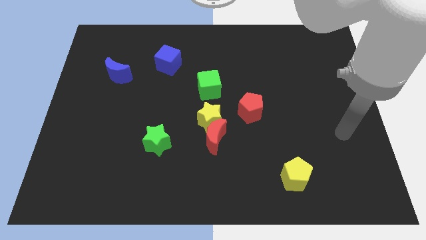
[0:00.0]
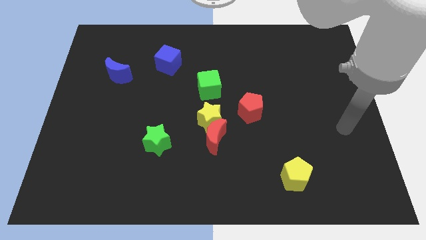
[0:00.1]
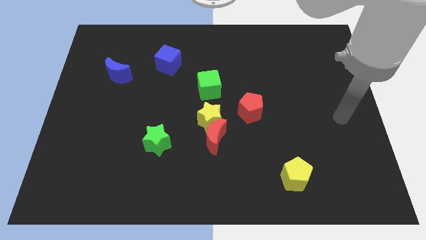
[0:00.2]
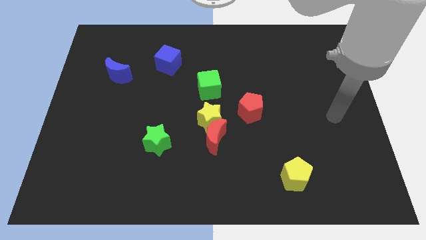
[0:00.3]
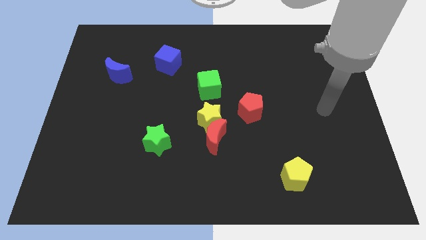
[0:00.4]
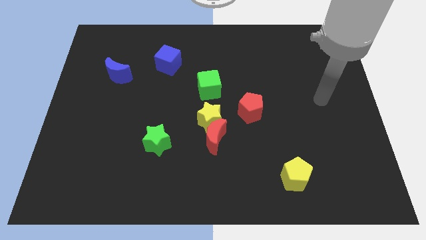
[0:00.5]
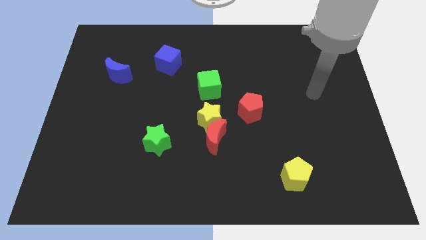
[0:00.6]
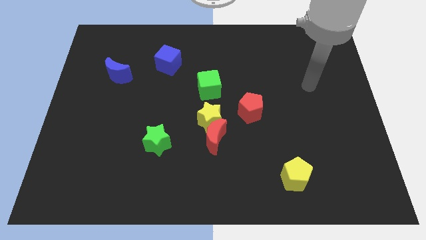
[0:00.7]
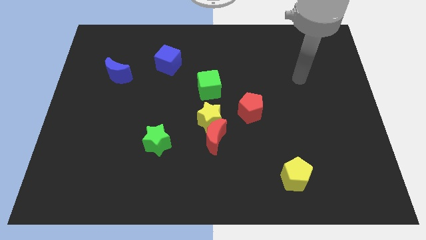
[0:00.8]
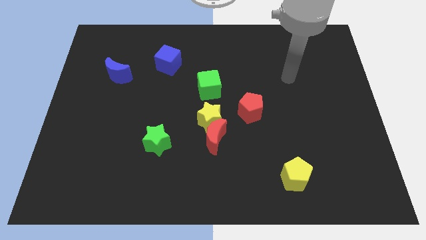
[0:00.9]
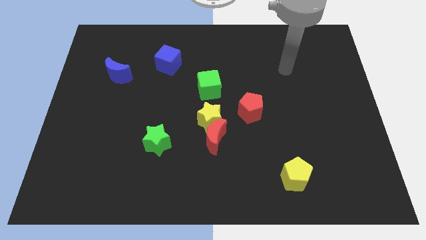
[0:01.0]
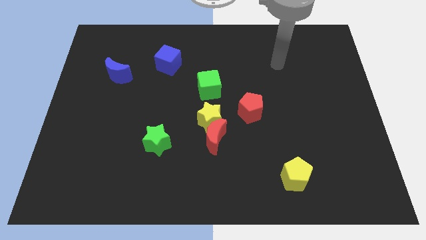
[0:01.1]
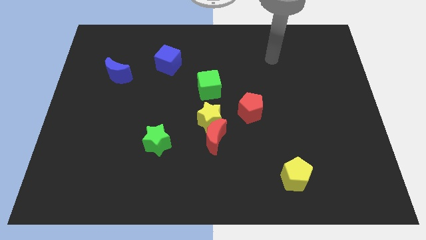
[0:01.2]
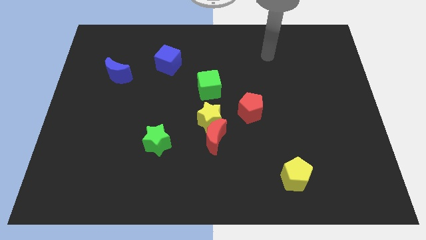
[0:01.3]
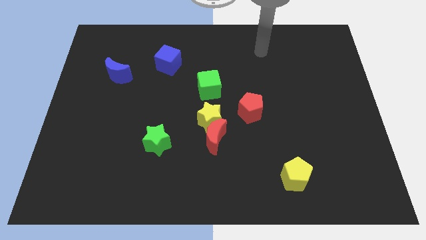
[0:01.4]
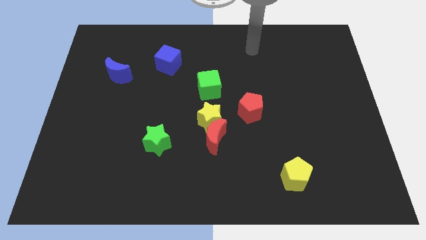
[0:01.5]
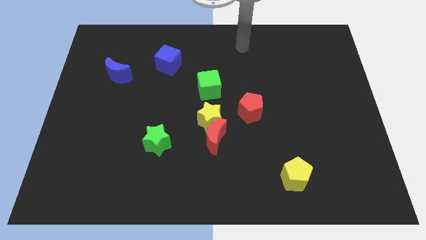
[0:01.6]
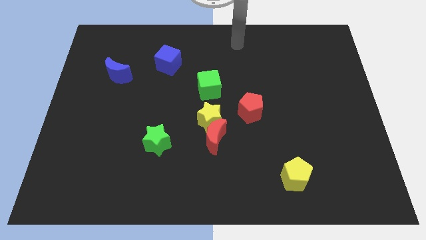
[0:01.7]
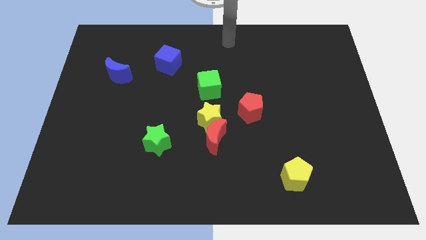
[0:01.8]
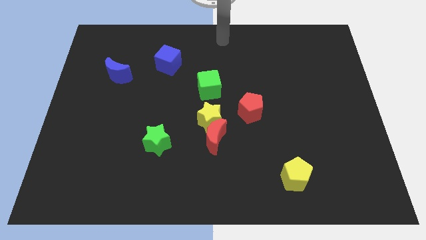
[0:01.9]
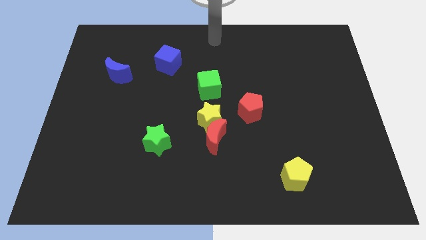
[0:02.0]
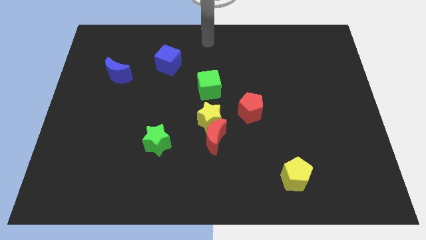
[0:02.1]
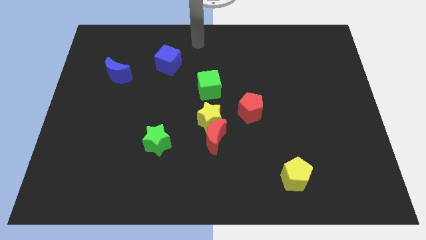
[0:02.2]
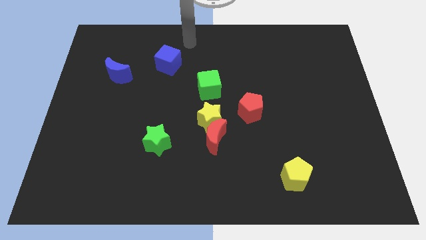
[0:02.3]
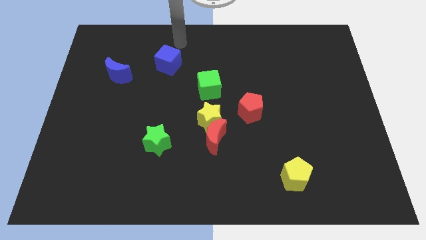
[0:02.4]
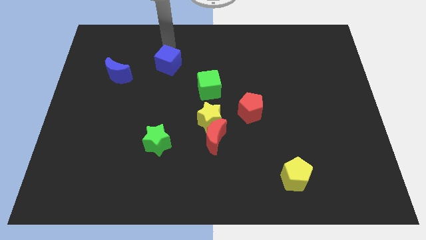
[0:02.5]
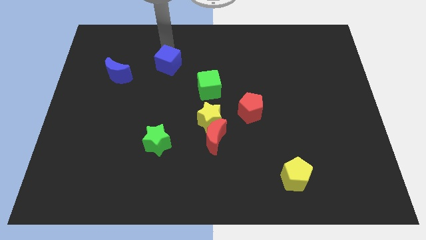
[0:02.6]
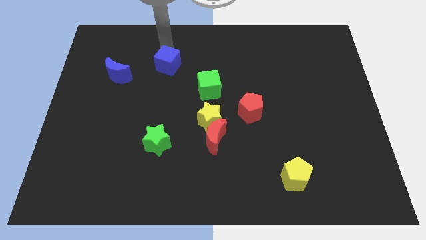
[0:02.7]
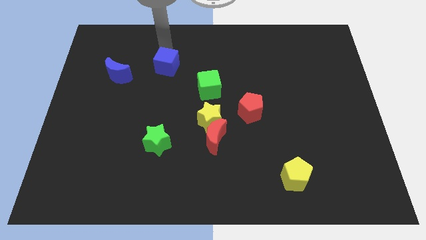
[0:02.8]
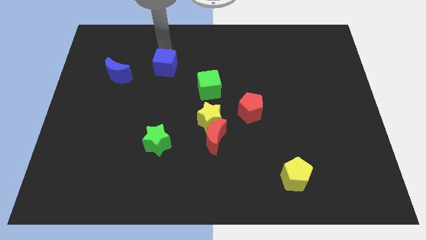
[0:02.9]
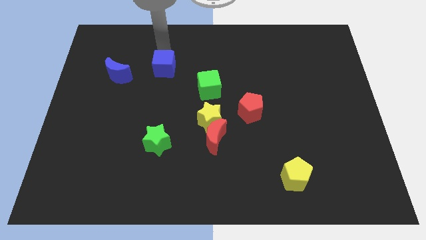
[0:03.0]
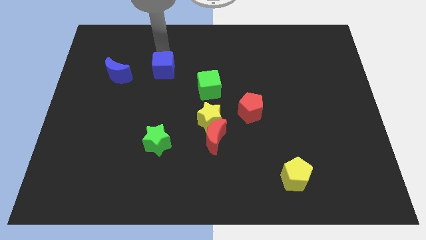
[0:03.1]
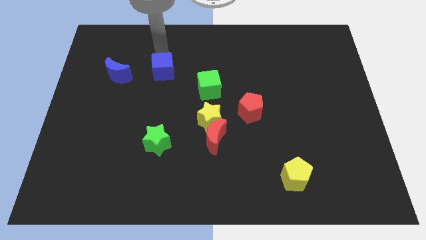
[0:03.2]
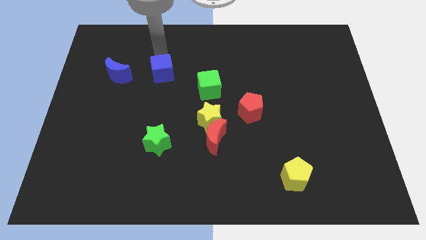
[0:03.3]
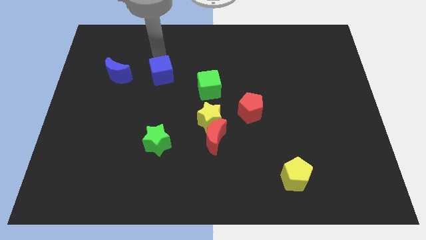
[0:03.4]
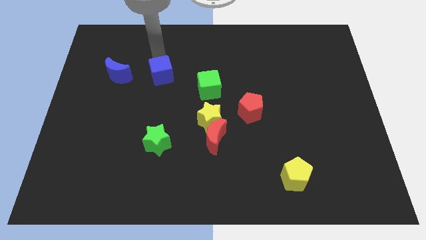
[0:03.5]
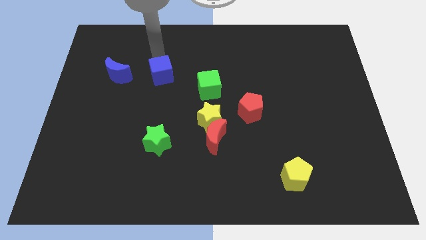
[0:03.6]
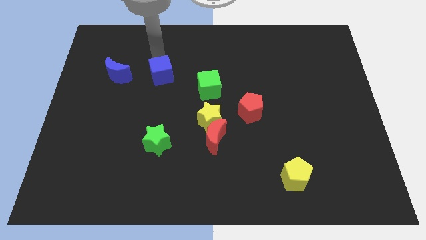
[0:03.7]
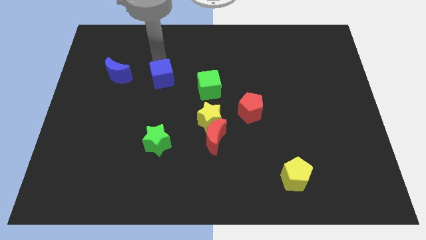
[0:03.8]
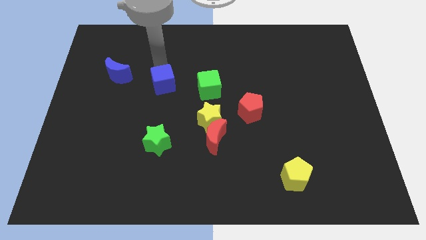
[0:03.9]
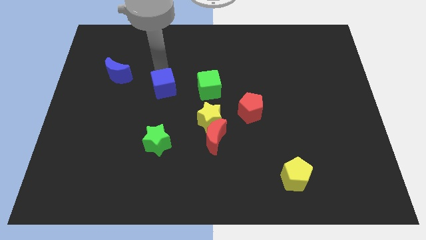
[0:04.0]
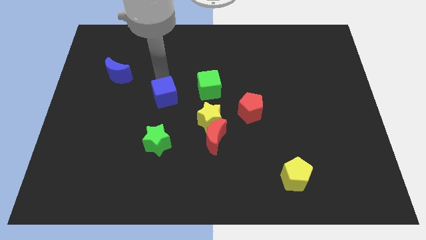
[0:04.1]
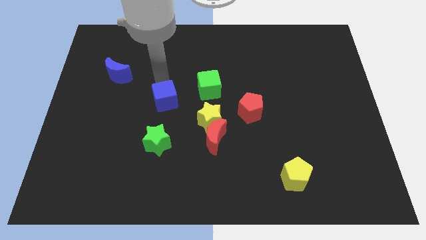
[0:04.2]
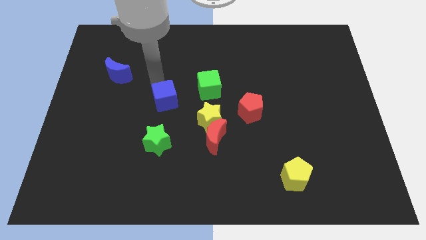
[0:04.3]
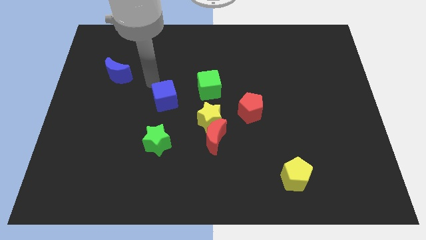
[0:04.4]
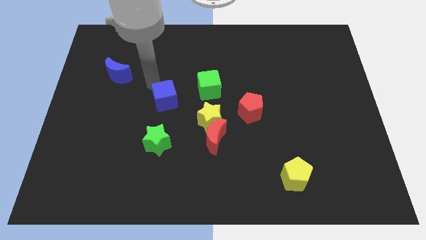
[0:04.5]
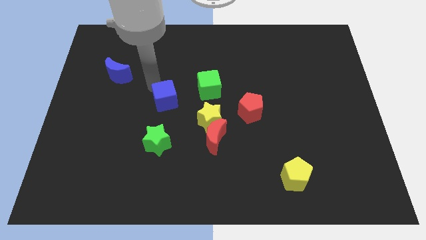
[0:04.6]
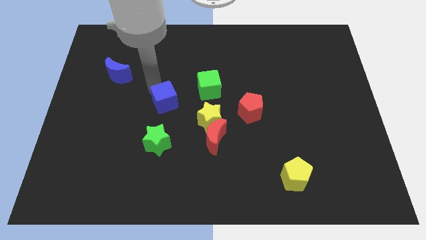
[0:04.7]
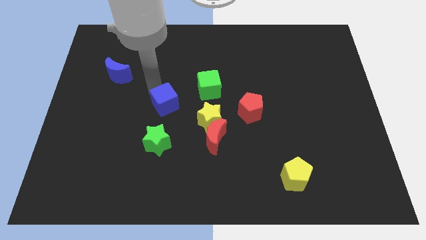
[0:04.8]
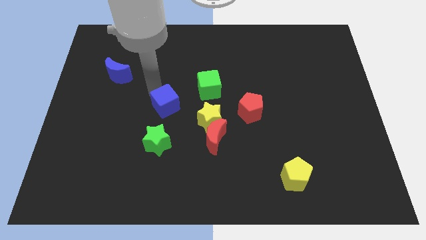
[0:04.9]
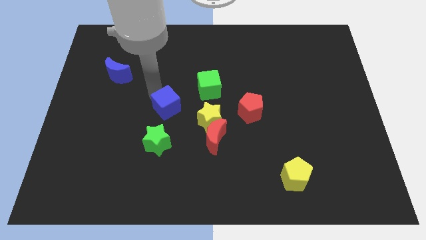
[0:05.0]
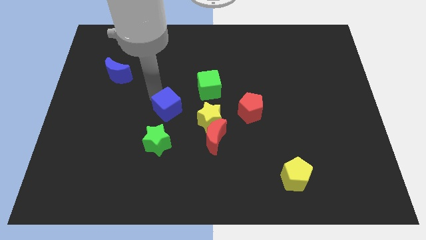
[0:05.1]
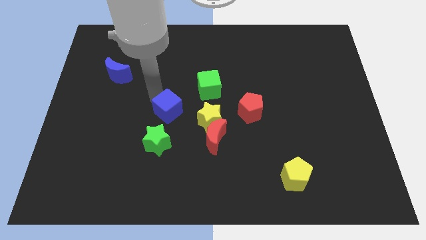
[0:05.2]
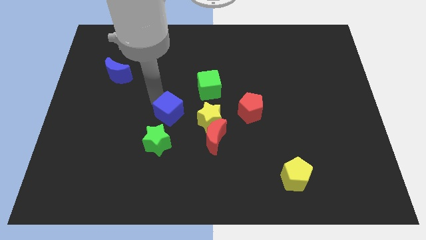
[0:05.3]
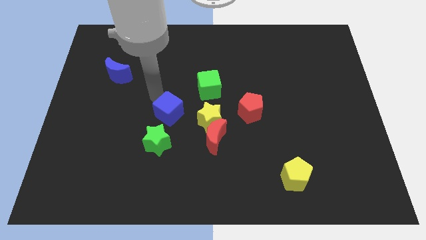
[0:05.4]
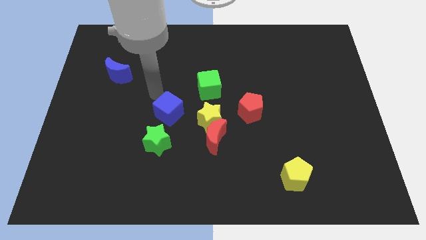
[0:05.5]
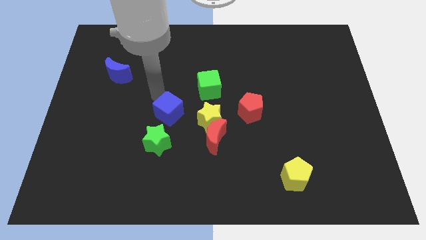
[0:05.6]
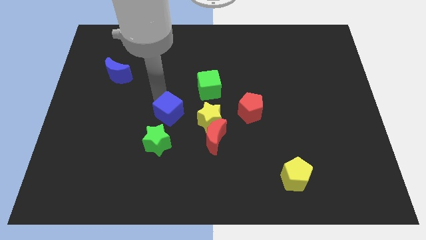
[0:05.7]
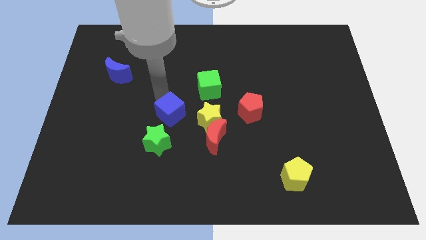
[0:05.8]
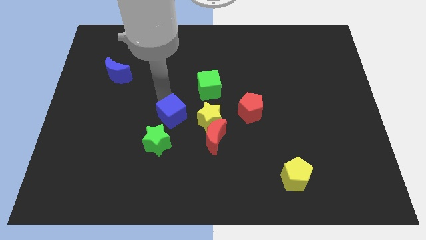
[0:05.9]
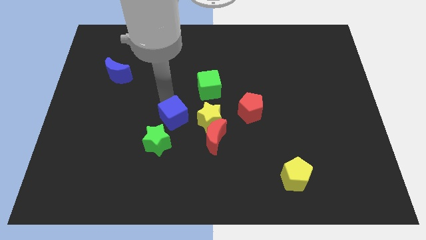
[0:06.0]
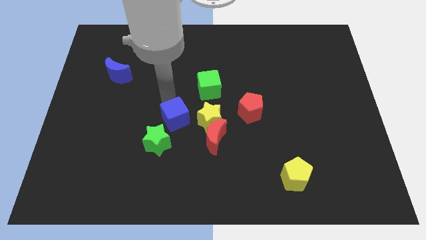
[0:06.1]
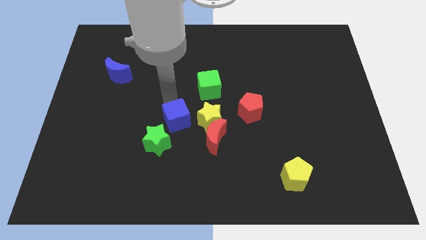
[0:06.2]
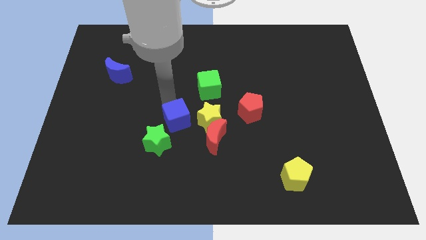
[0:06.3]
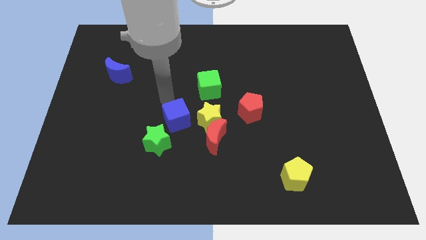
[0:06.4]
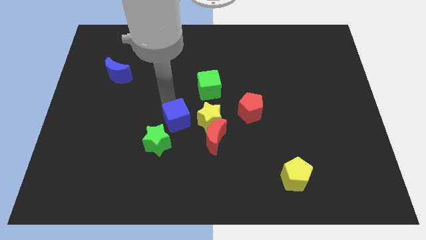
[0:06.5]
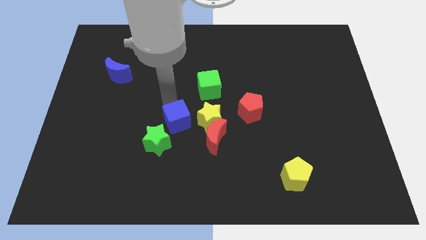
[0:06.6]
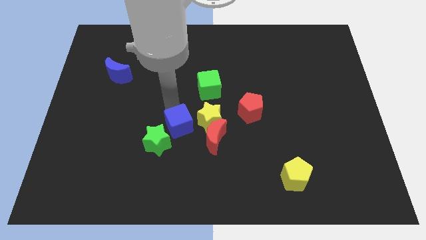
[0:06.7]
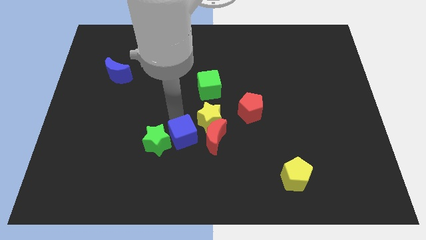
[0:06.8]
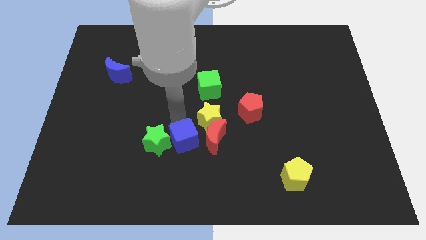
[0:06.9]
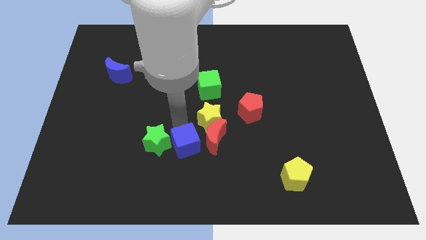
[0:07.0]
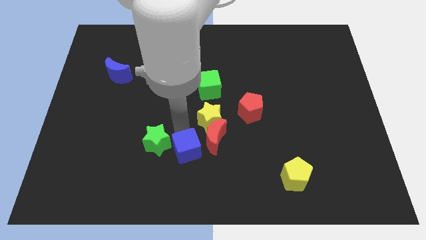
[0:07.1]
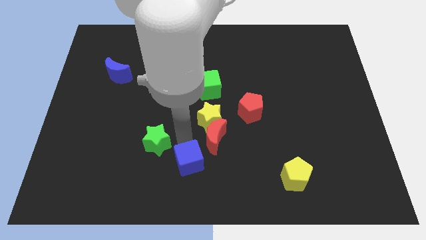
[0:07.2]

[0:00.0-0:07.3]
push the blue cube to the bottom
